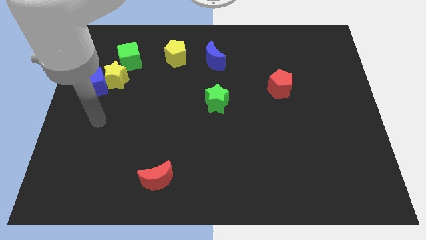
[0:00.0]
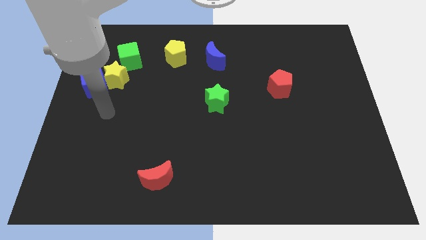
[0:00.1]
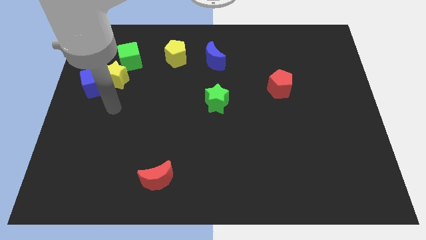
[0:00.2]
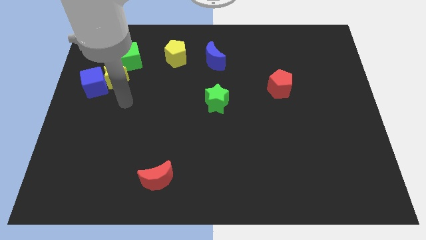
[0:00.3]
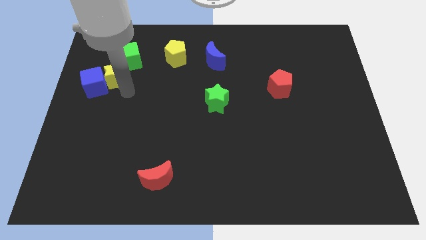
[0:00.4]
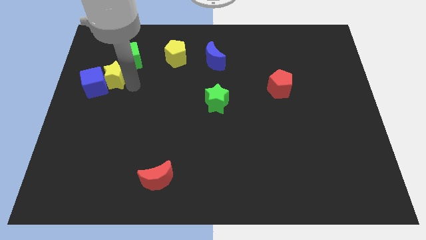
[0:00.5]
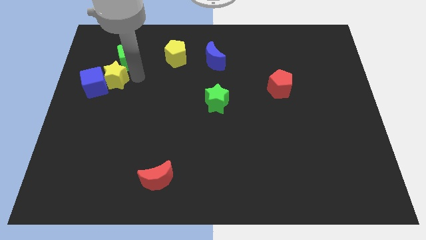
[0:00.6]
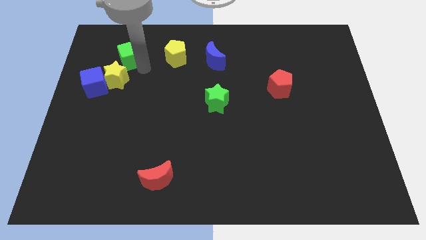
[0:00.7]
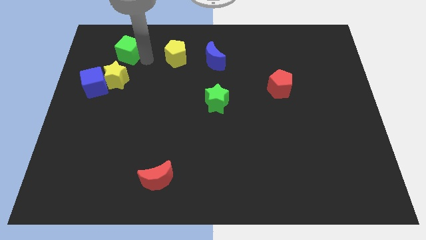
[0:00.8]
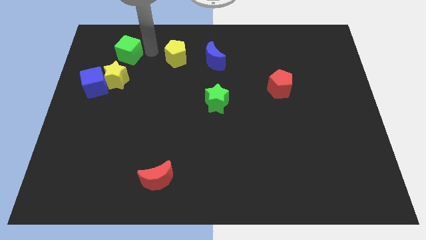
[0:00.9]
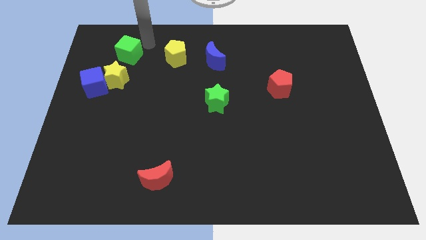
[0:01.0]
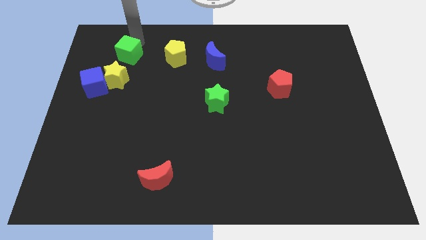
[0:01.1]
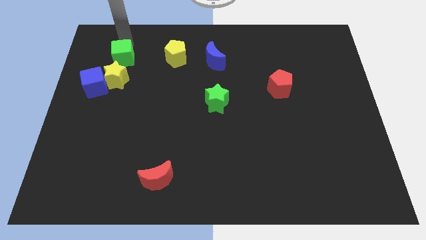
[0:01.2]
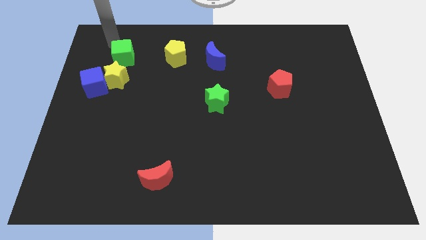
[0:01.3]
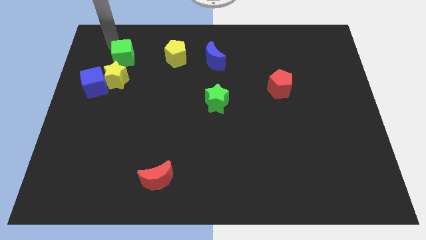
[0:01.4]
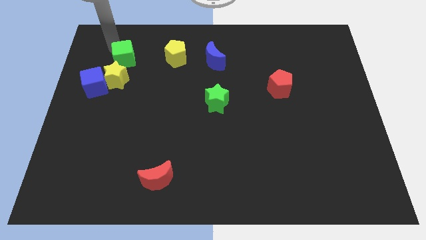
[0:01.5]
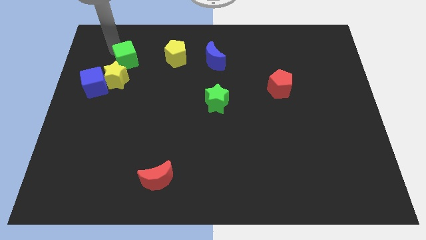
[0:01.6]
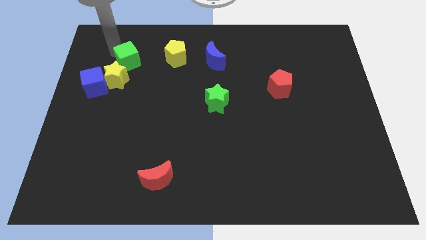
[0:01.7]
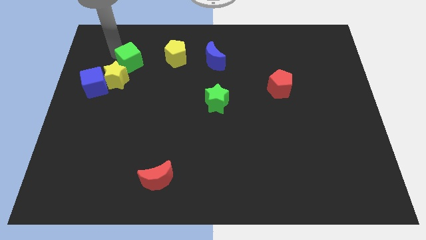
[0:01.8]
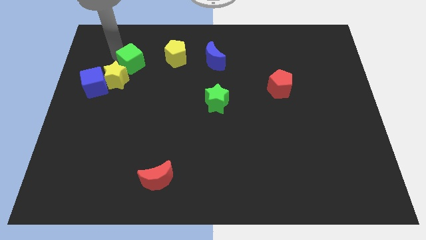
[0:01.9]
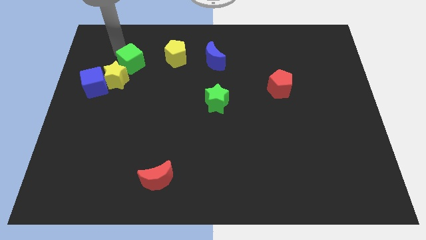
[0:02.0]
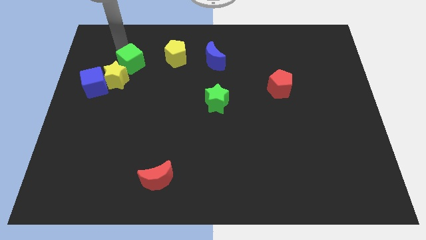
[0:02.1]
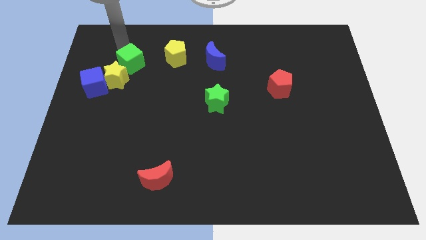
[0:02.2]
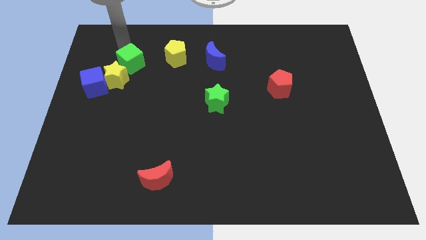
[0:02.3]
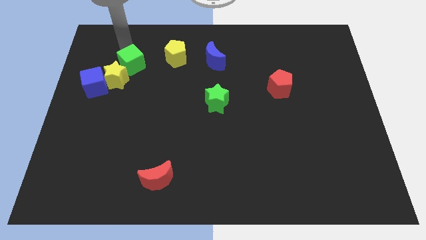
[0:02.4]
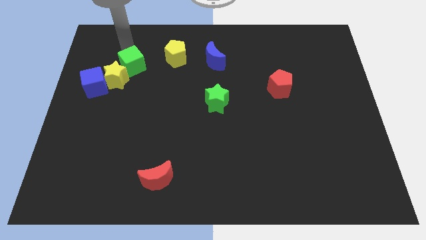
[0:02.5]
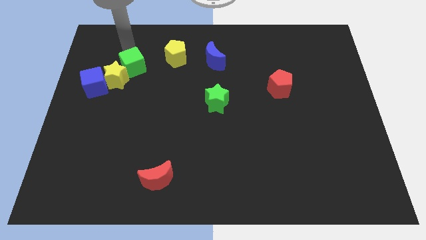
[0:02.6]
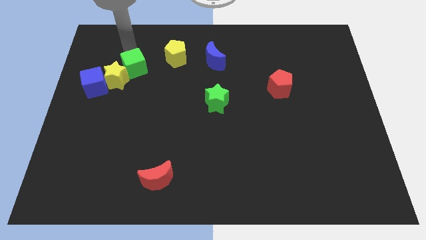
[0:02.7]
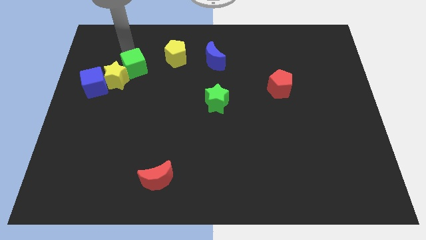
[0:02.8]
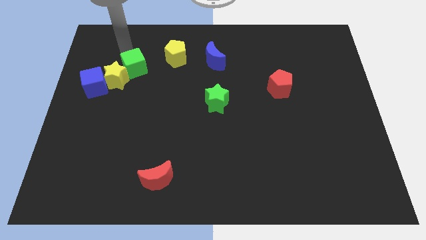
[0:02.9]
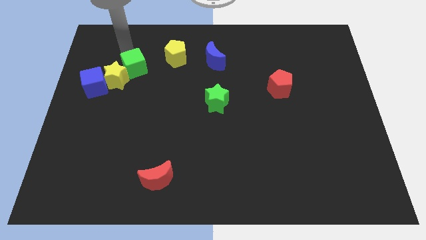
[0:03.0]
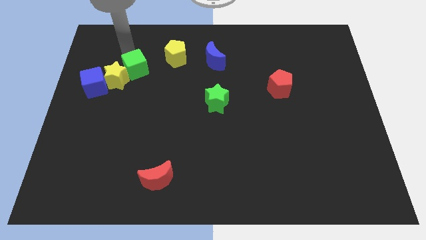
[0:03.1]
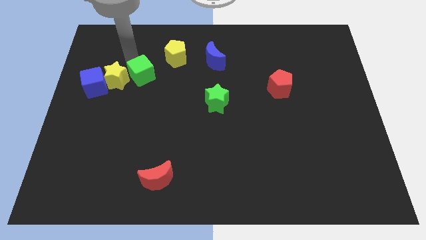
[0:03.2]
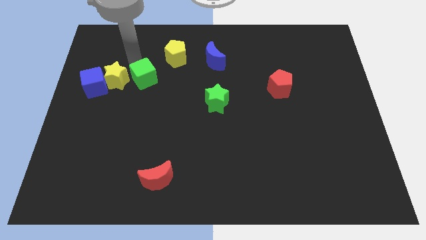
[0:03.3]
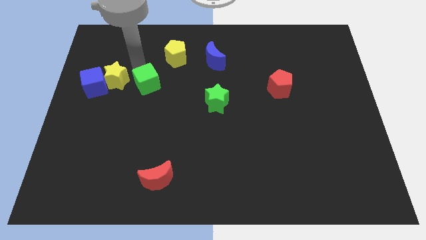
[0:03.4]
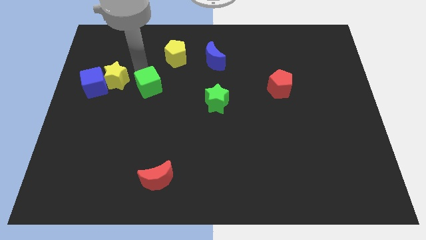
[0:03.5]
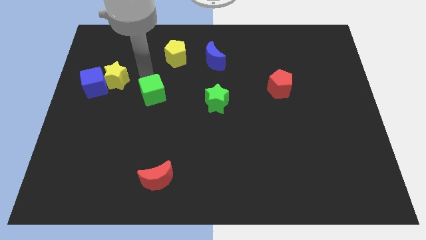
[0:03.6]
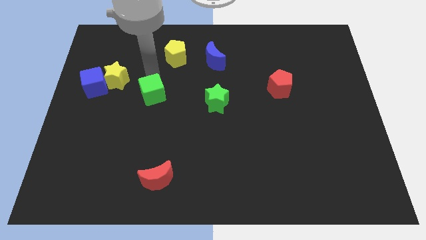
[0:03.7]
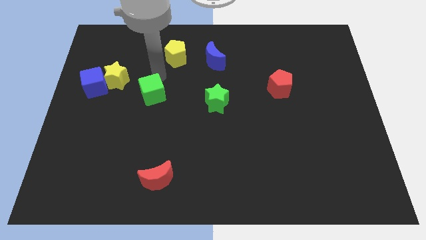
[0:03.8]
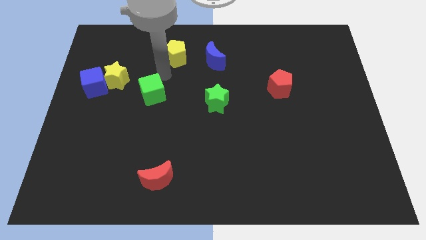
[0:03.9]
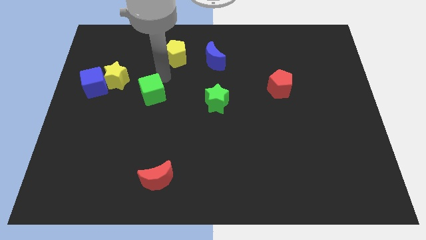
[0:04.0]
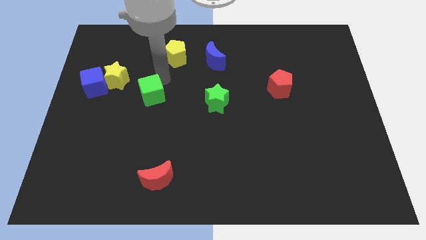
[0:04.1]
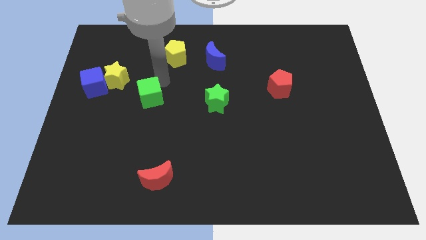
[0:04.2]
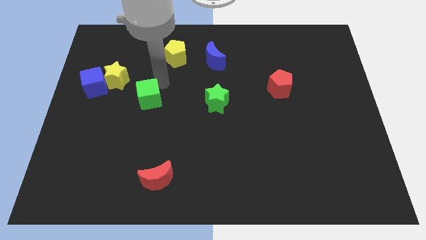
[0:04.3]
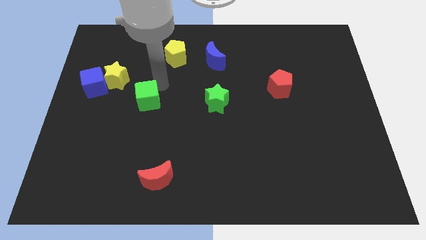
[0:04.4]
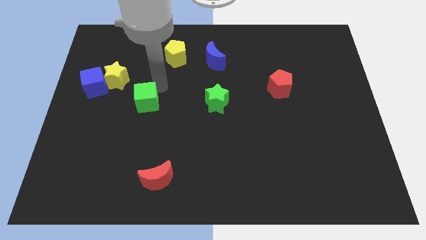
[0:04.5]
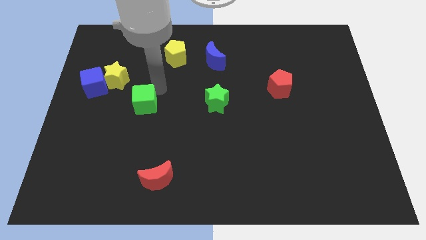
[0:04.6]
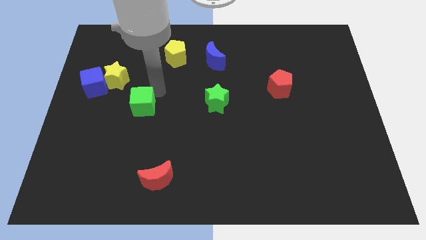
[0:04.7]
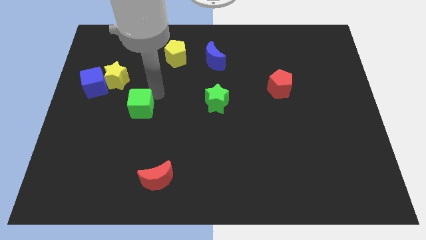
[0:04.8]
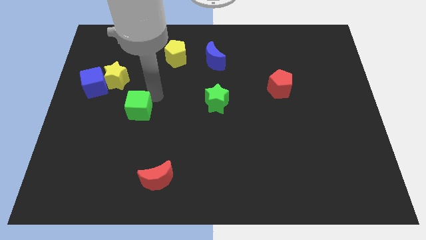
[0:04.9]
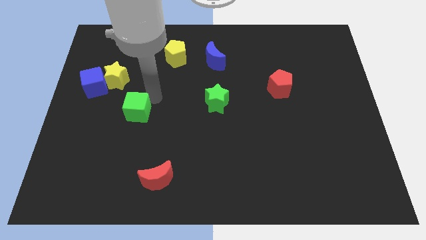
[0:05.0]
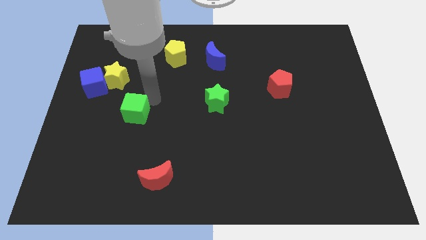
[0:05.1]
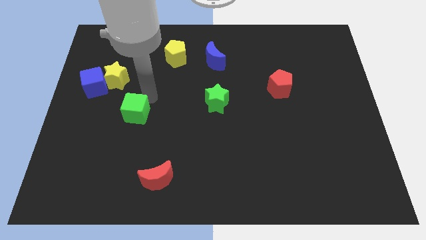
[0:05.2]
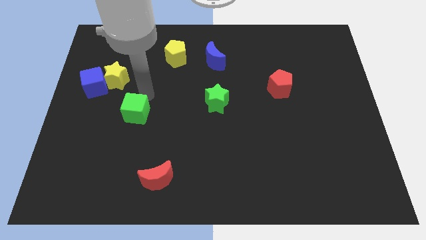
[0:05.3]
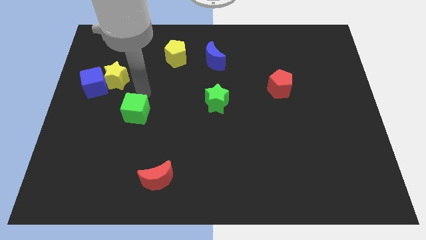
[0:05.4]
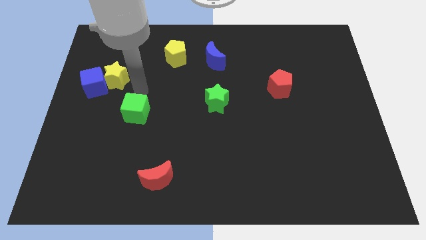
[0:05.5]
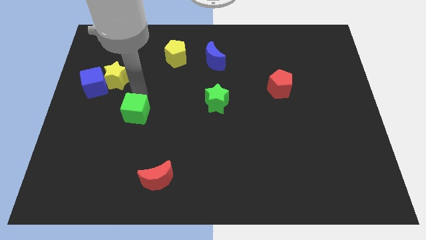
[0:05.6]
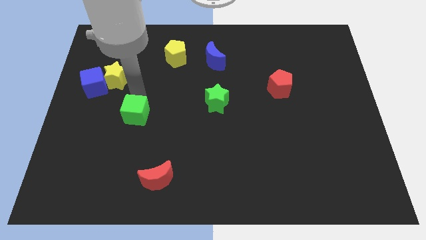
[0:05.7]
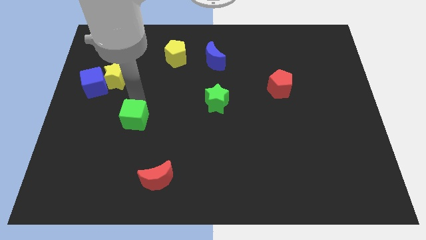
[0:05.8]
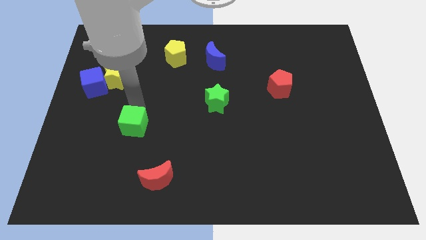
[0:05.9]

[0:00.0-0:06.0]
push the green cube down

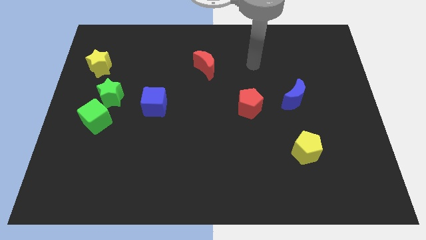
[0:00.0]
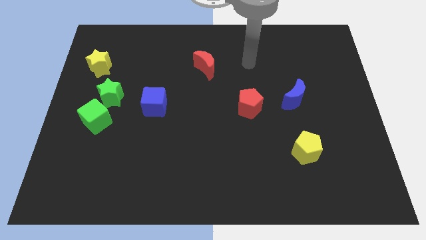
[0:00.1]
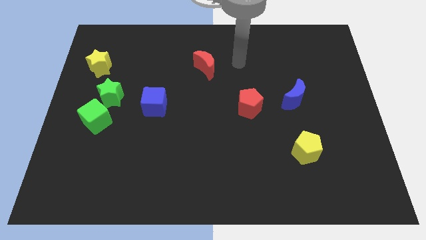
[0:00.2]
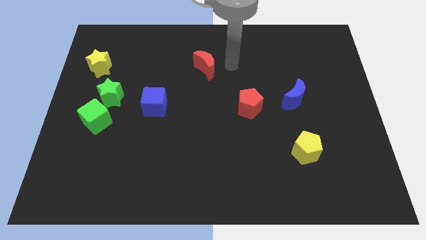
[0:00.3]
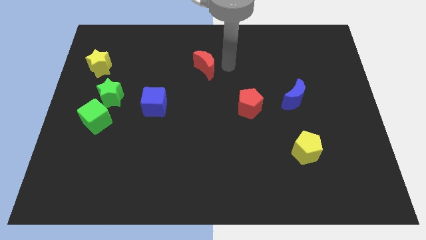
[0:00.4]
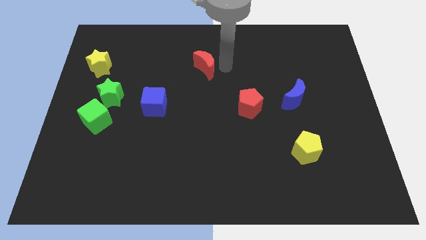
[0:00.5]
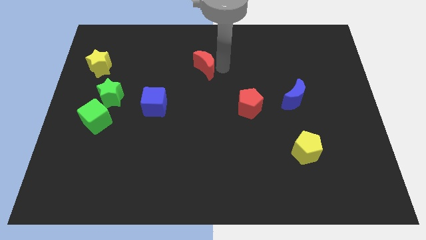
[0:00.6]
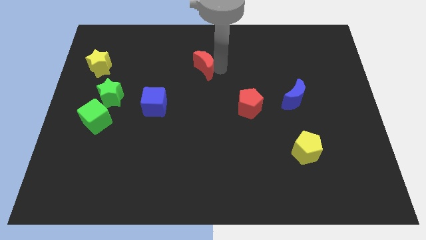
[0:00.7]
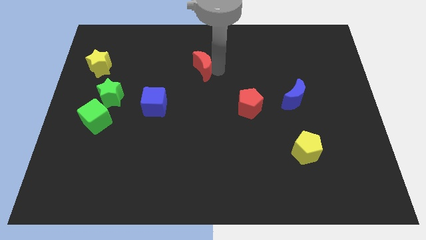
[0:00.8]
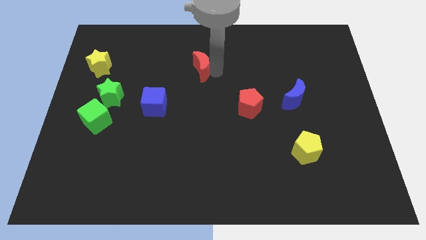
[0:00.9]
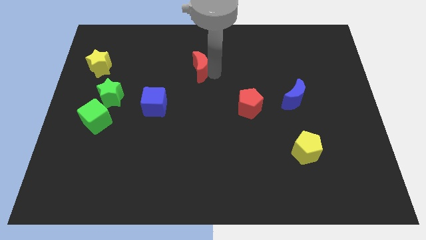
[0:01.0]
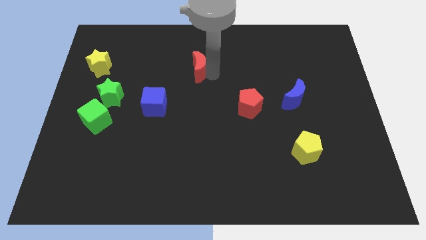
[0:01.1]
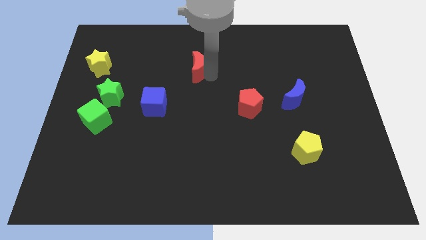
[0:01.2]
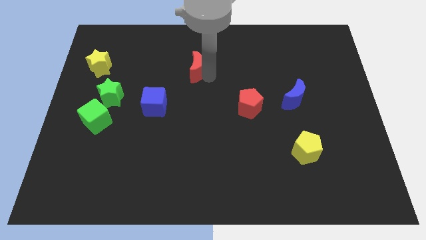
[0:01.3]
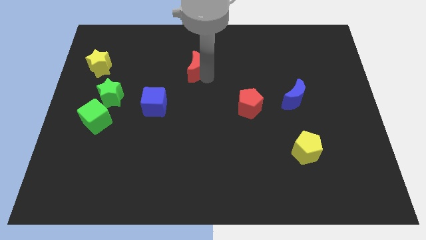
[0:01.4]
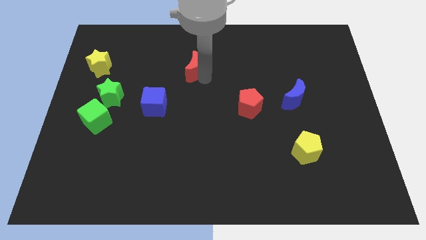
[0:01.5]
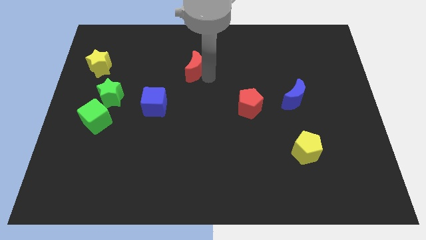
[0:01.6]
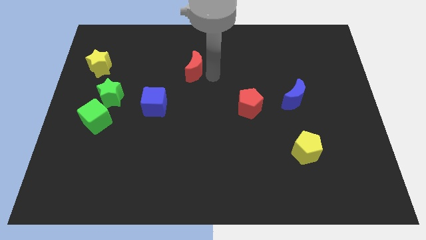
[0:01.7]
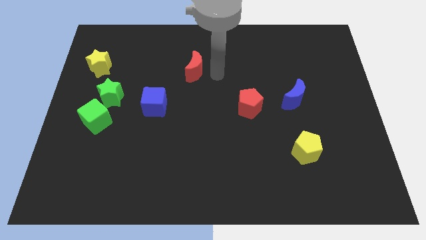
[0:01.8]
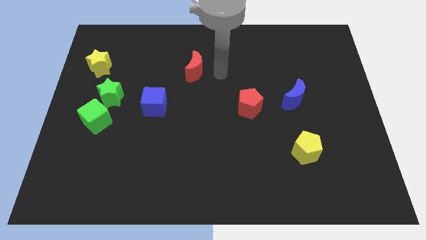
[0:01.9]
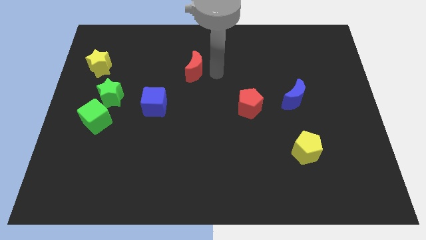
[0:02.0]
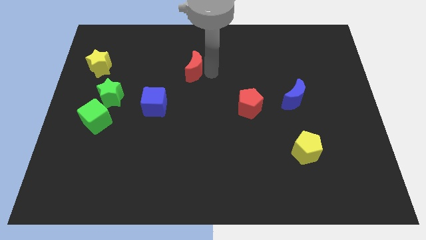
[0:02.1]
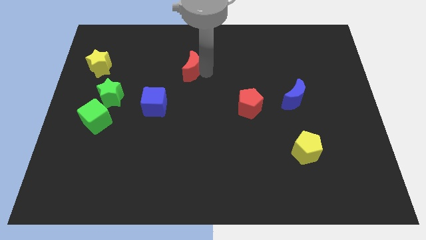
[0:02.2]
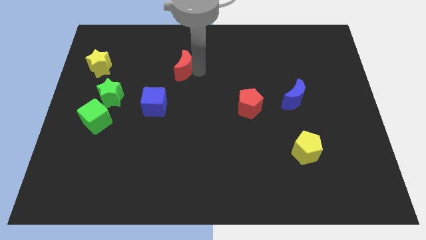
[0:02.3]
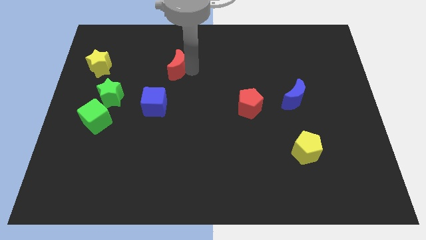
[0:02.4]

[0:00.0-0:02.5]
move the red moon to the left slightly
